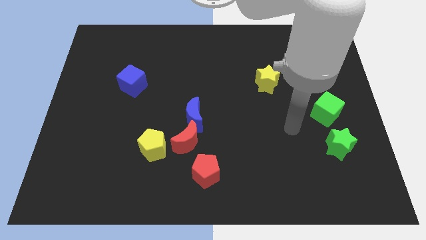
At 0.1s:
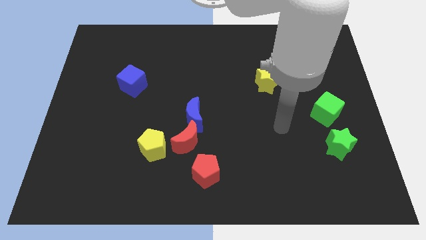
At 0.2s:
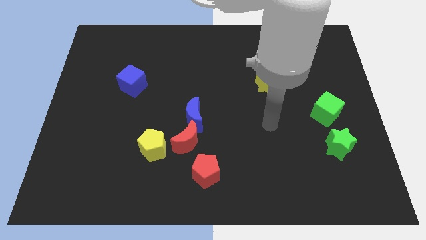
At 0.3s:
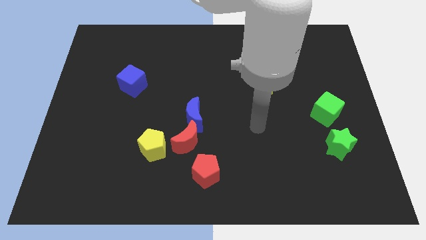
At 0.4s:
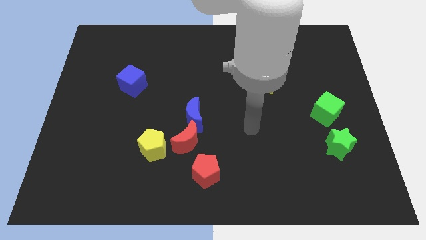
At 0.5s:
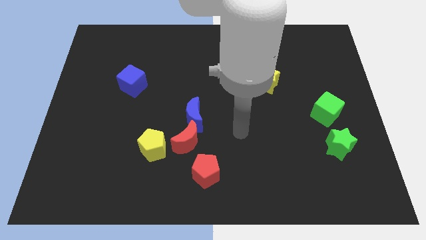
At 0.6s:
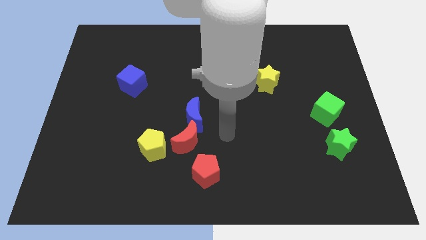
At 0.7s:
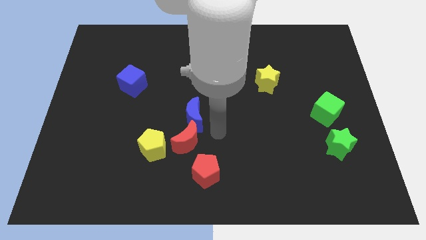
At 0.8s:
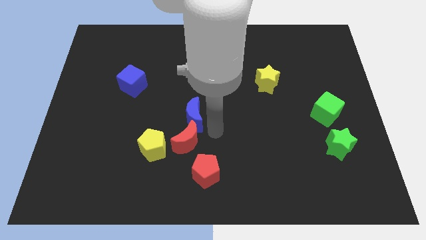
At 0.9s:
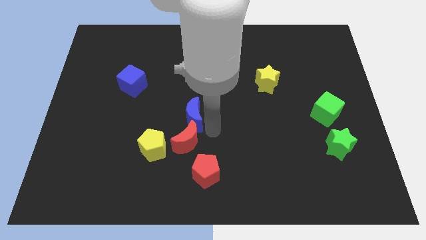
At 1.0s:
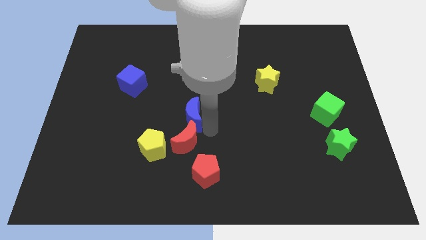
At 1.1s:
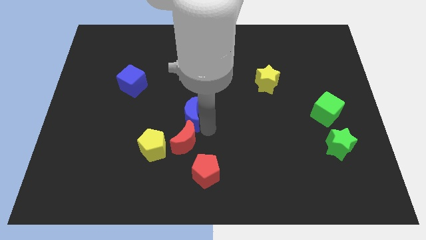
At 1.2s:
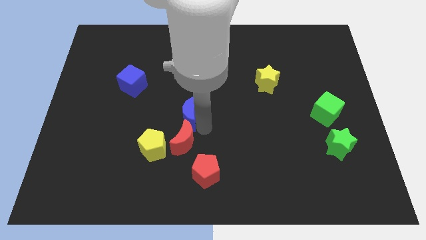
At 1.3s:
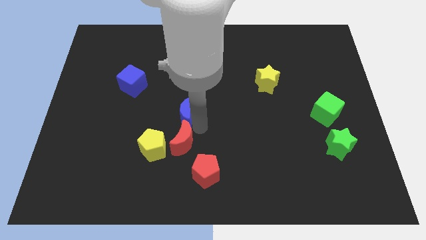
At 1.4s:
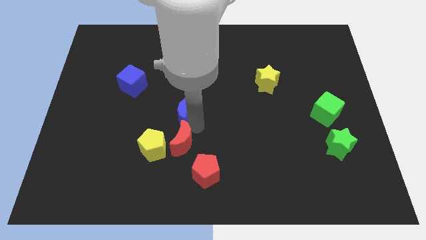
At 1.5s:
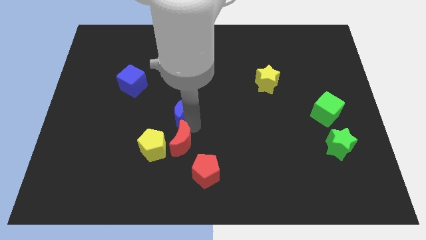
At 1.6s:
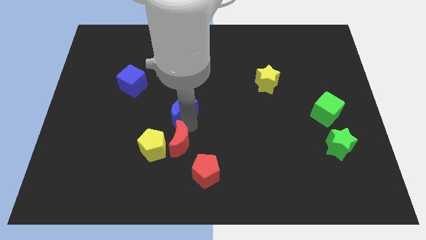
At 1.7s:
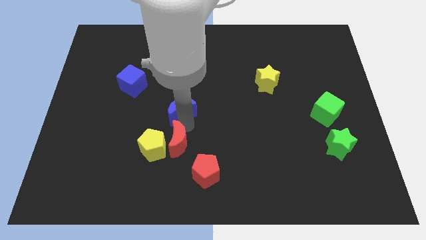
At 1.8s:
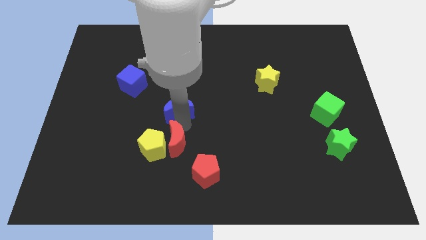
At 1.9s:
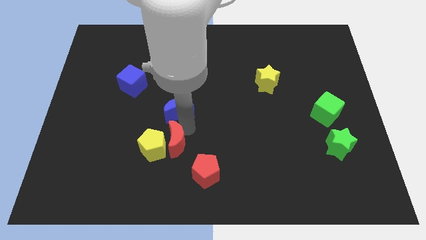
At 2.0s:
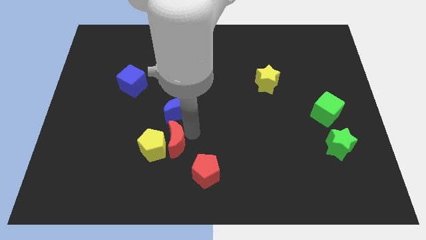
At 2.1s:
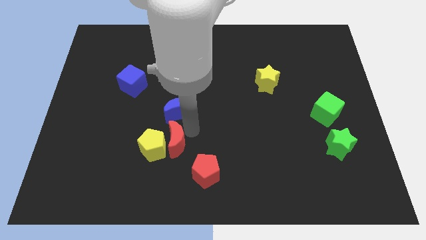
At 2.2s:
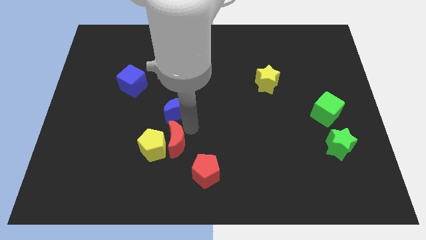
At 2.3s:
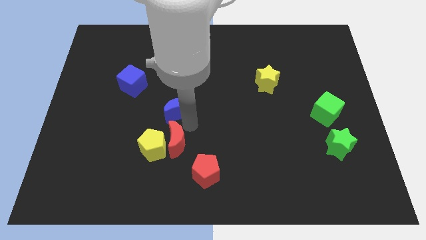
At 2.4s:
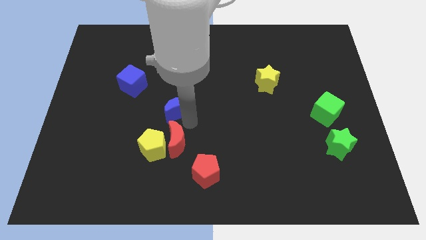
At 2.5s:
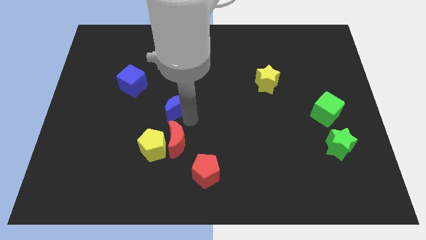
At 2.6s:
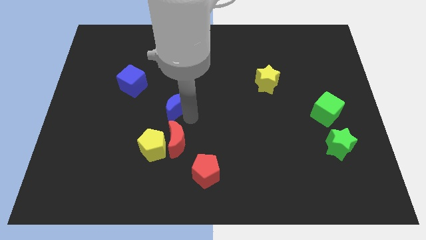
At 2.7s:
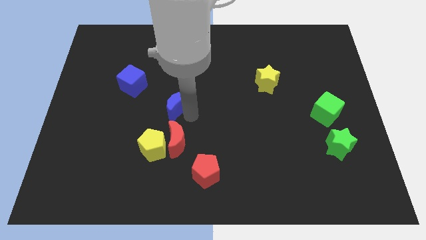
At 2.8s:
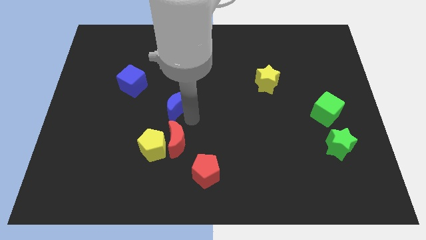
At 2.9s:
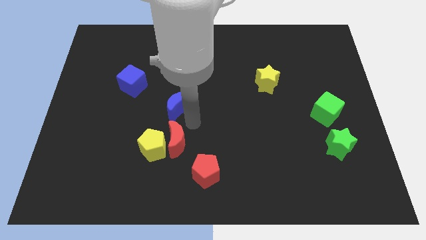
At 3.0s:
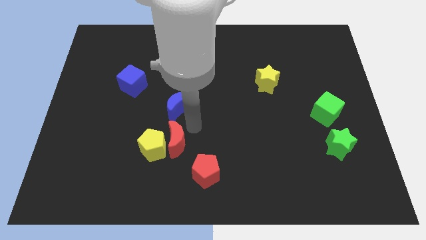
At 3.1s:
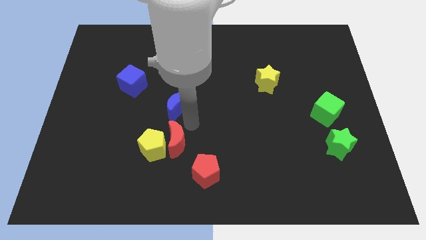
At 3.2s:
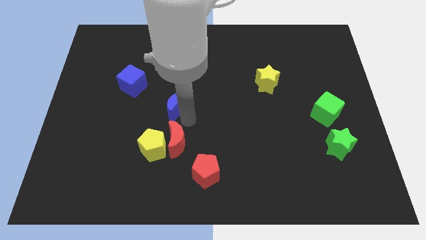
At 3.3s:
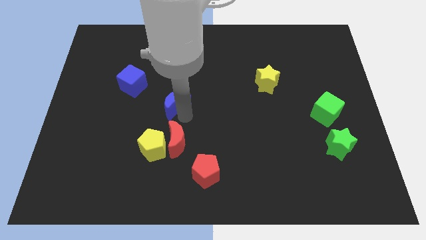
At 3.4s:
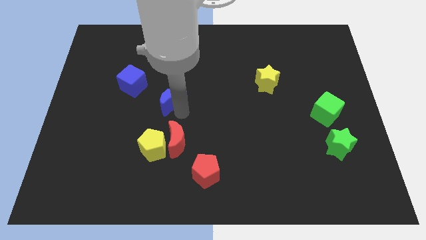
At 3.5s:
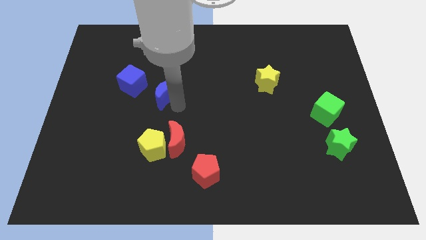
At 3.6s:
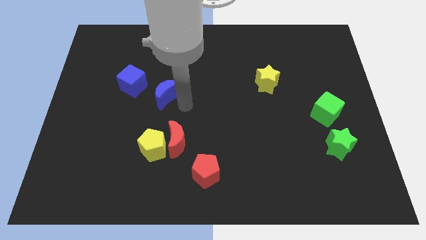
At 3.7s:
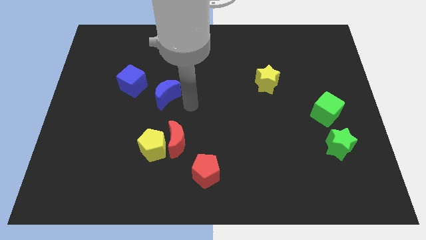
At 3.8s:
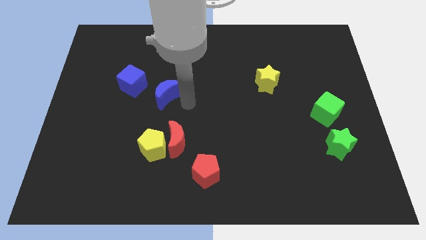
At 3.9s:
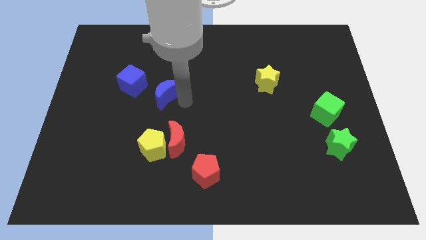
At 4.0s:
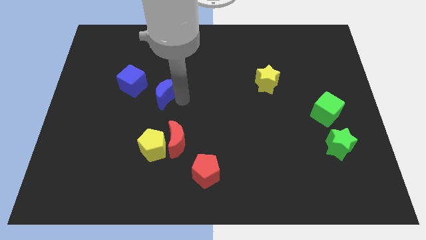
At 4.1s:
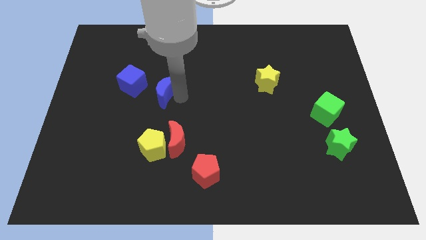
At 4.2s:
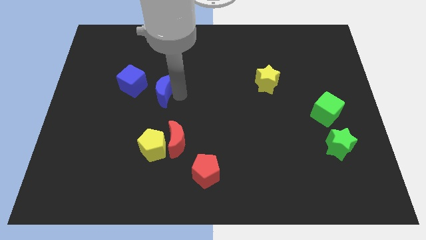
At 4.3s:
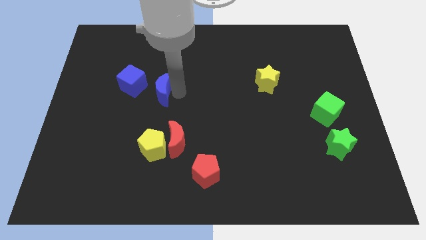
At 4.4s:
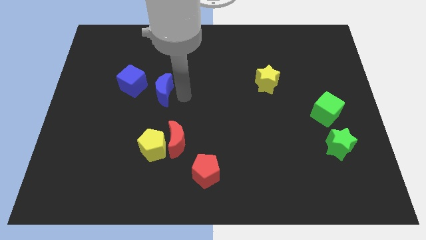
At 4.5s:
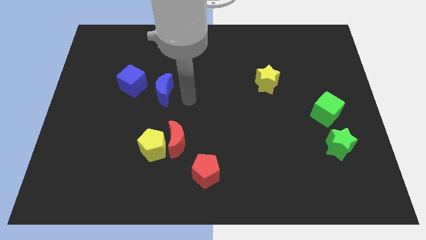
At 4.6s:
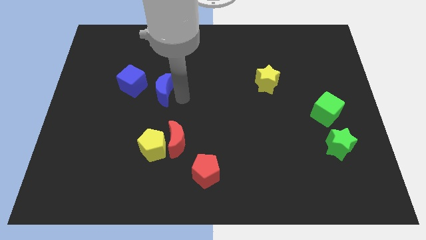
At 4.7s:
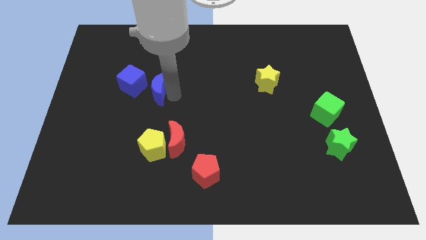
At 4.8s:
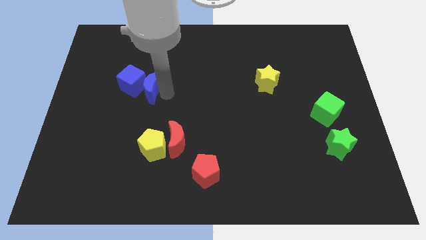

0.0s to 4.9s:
move the blue moon next to the blue cube

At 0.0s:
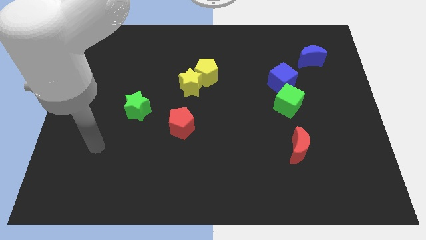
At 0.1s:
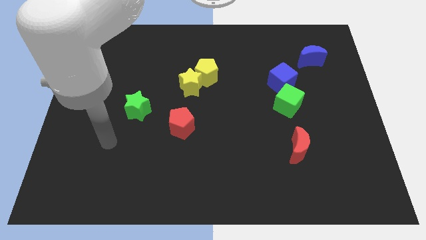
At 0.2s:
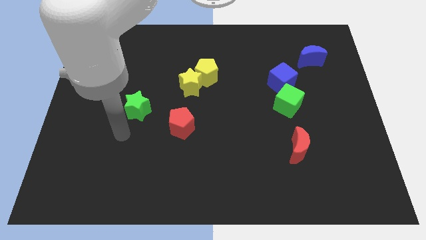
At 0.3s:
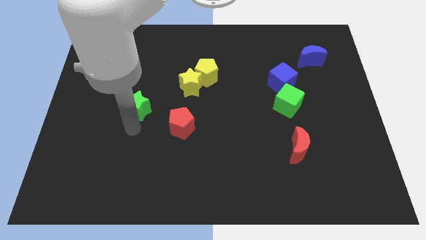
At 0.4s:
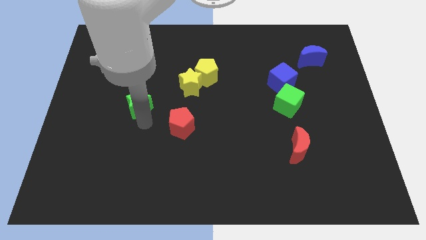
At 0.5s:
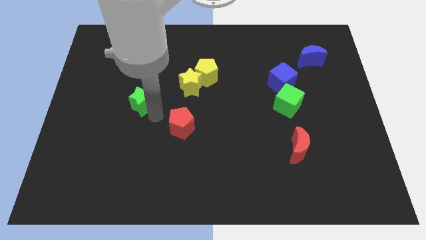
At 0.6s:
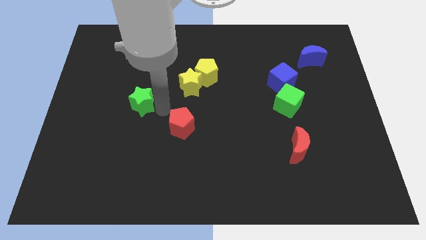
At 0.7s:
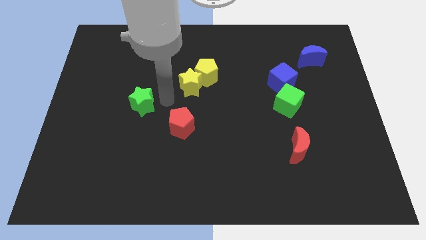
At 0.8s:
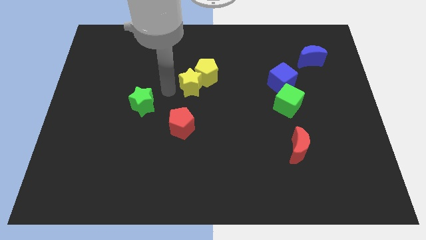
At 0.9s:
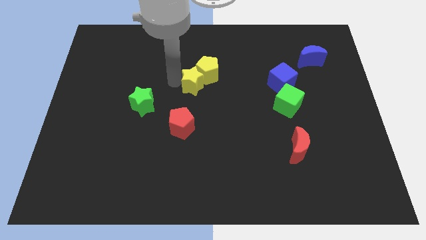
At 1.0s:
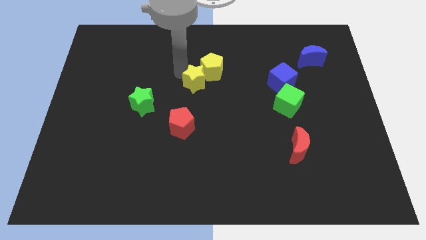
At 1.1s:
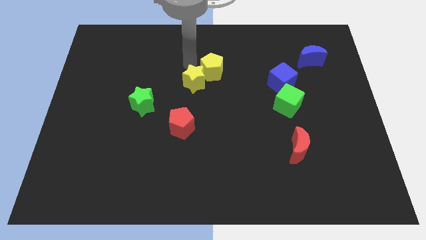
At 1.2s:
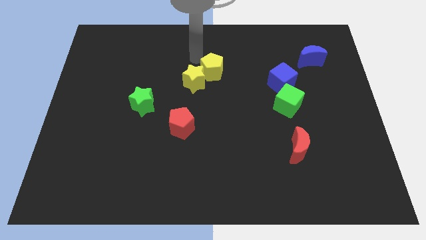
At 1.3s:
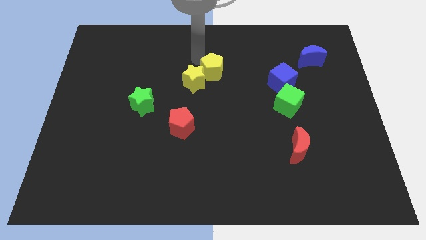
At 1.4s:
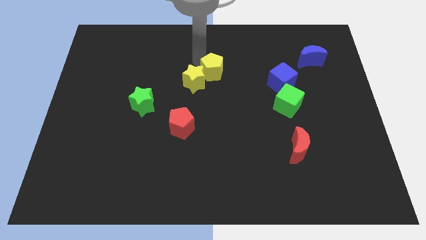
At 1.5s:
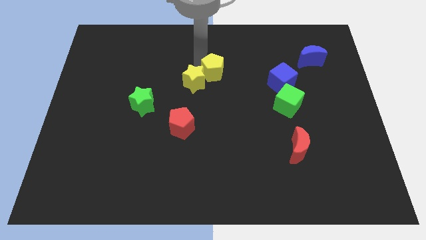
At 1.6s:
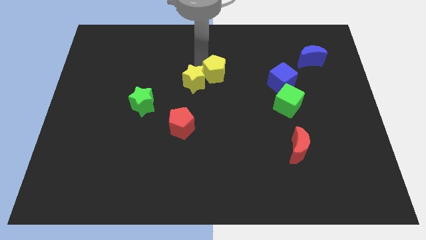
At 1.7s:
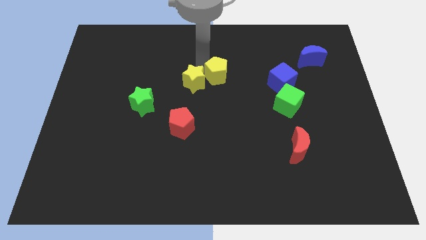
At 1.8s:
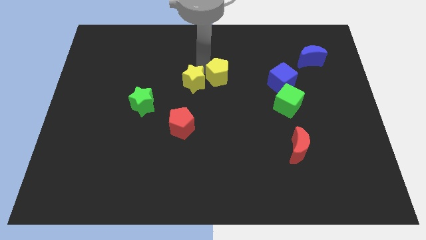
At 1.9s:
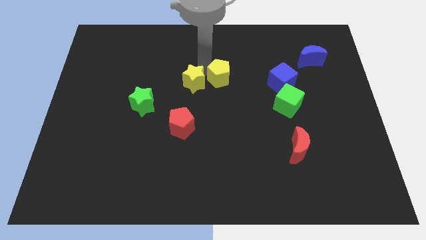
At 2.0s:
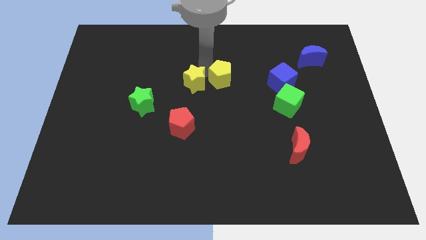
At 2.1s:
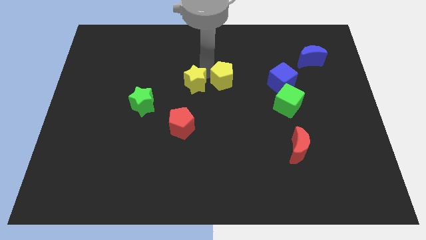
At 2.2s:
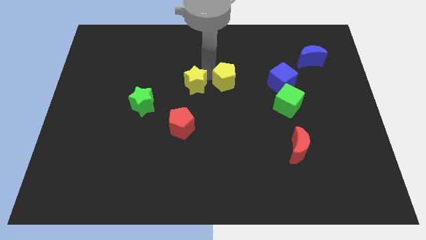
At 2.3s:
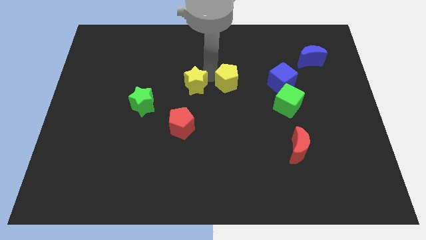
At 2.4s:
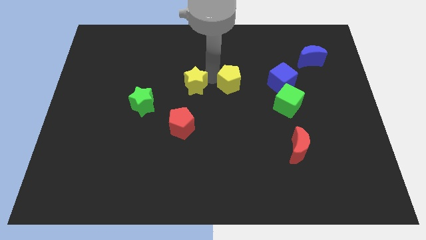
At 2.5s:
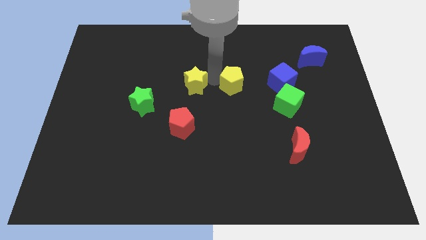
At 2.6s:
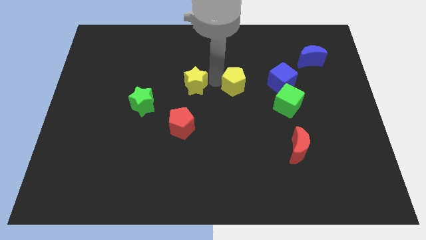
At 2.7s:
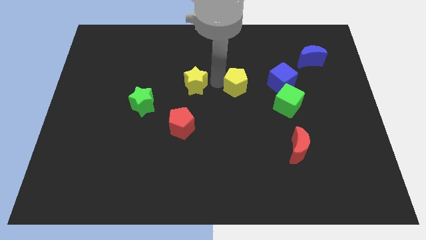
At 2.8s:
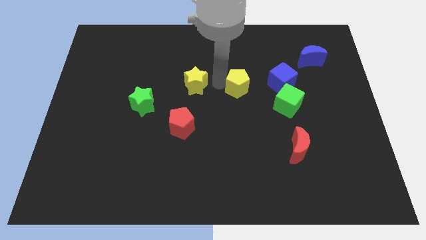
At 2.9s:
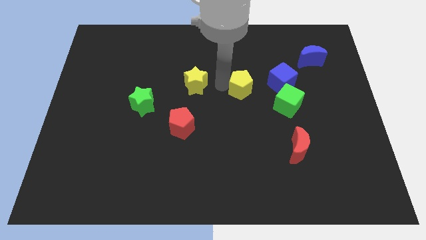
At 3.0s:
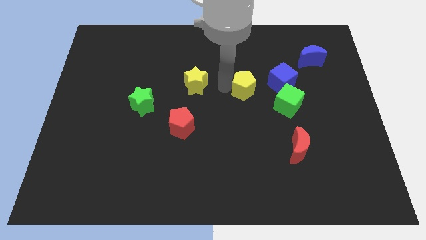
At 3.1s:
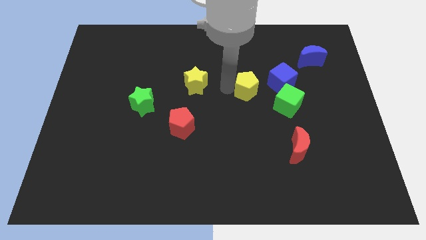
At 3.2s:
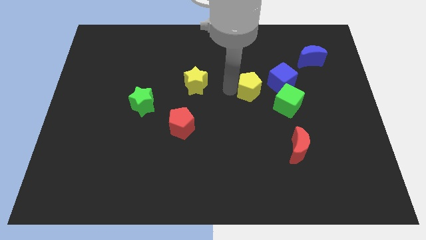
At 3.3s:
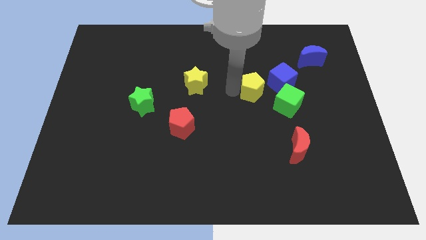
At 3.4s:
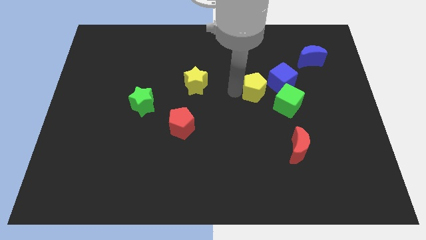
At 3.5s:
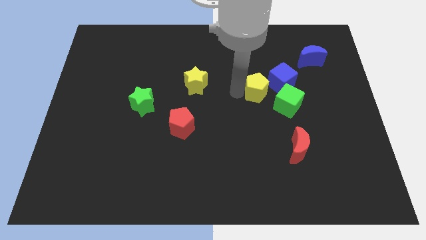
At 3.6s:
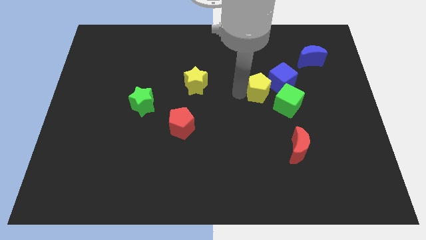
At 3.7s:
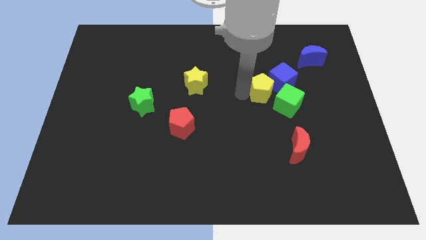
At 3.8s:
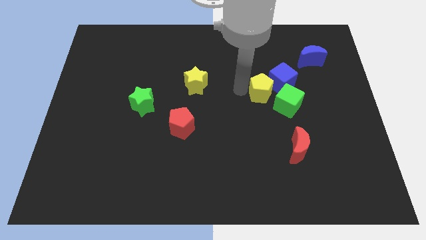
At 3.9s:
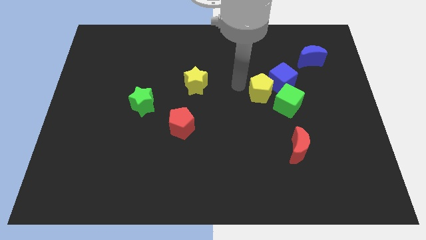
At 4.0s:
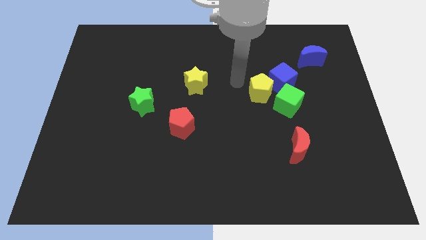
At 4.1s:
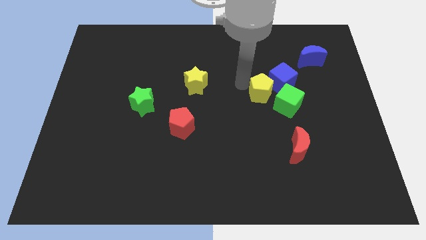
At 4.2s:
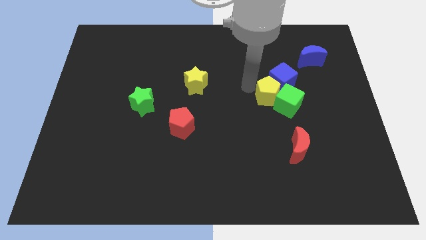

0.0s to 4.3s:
push the yellow pentagon close to the green cube
